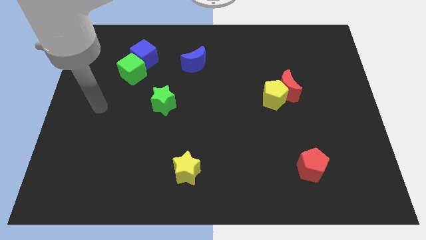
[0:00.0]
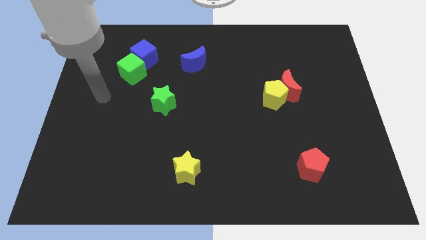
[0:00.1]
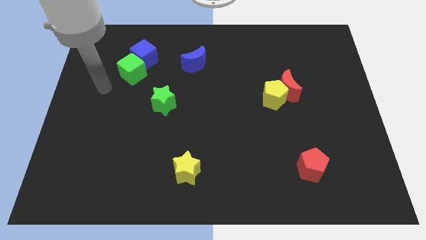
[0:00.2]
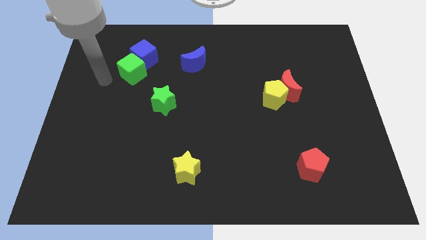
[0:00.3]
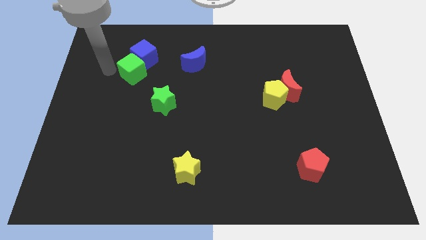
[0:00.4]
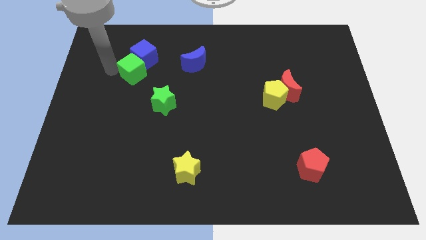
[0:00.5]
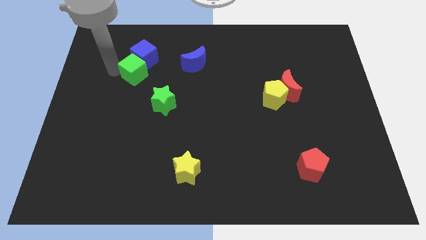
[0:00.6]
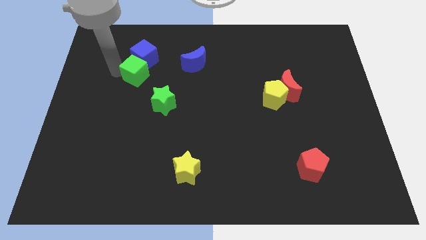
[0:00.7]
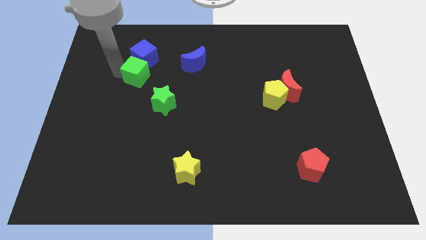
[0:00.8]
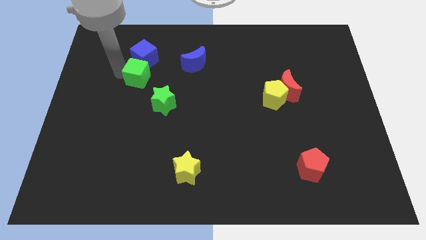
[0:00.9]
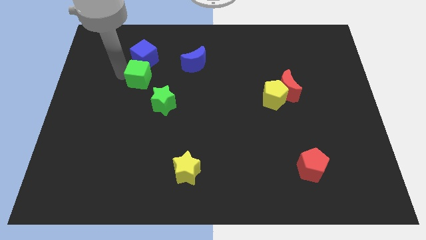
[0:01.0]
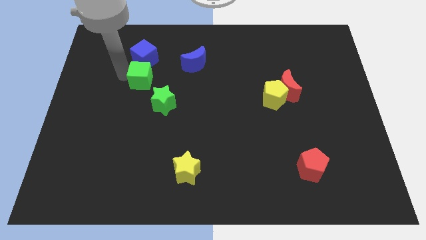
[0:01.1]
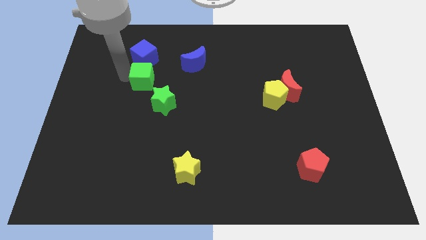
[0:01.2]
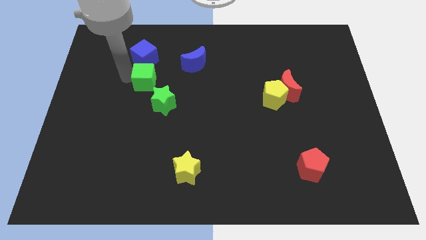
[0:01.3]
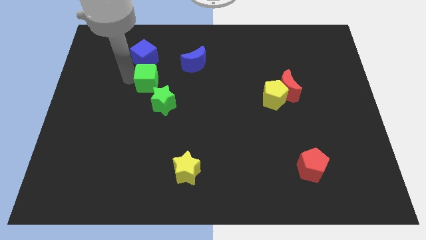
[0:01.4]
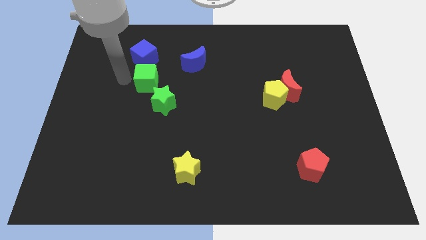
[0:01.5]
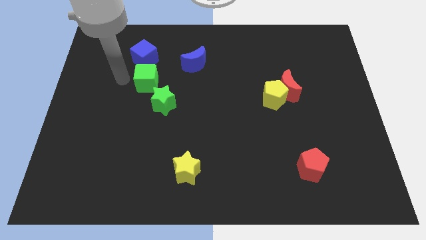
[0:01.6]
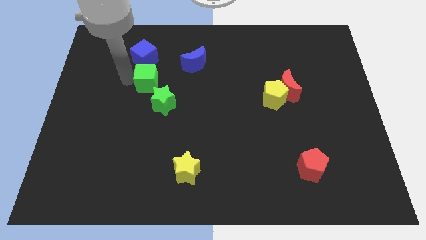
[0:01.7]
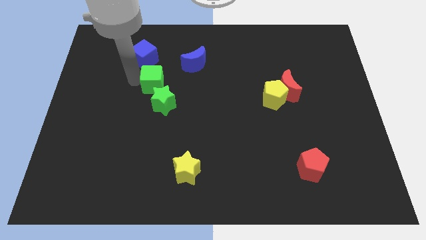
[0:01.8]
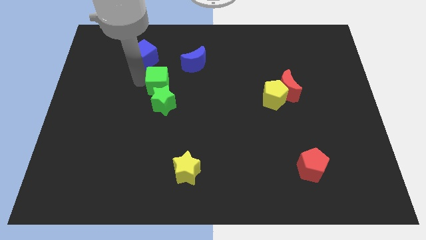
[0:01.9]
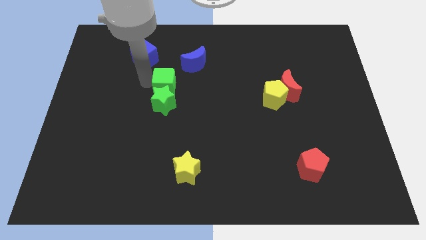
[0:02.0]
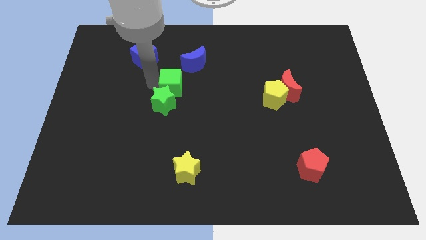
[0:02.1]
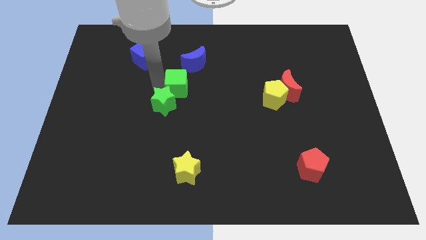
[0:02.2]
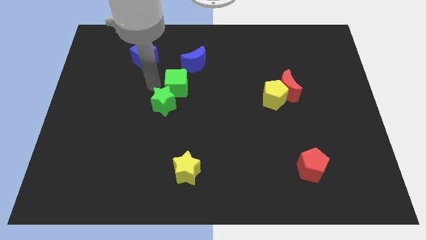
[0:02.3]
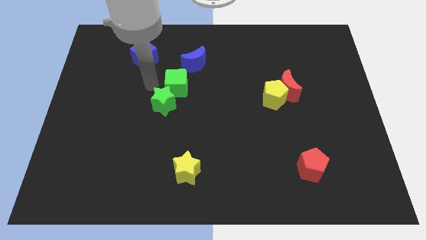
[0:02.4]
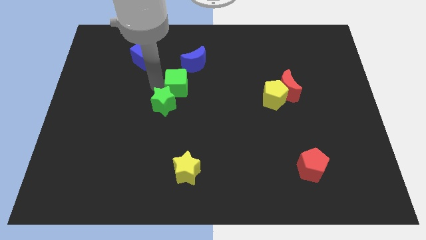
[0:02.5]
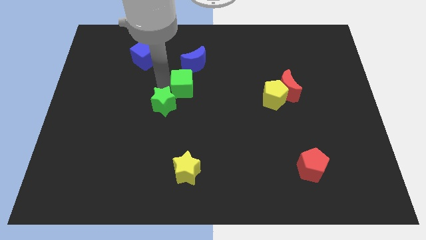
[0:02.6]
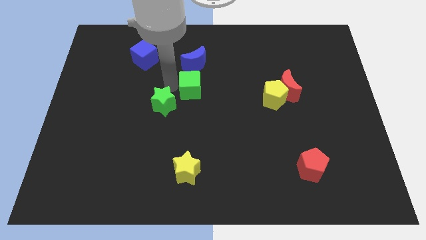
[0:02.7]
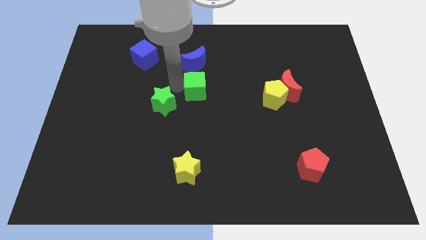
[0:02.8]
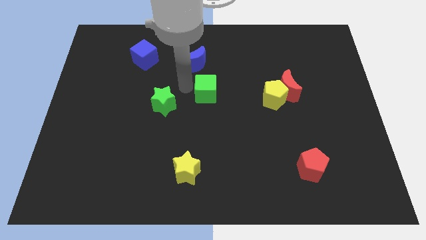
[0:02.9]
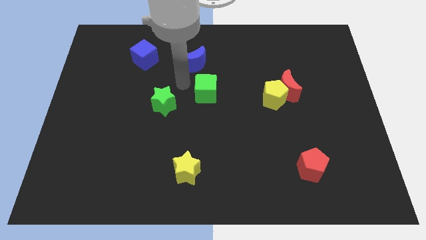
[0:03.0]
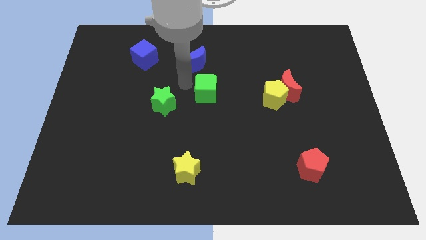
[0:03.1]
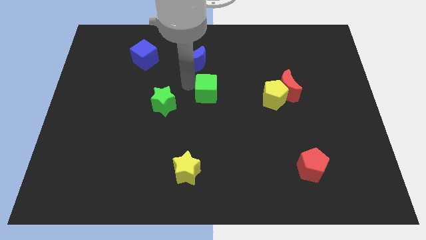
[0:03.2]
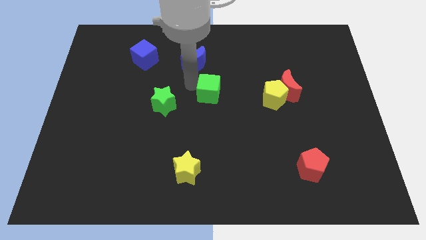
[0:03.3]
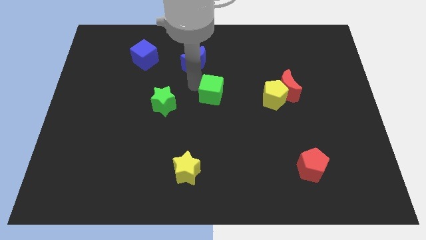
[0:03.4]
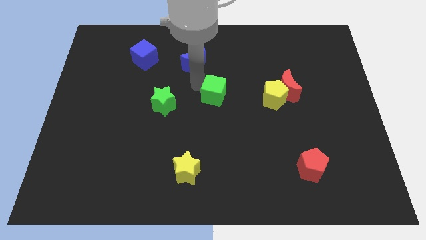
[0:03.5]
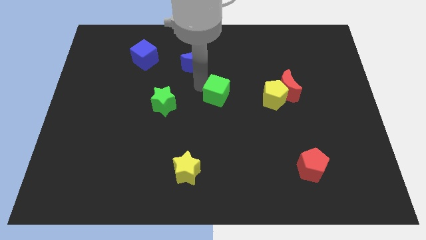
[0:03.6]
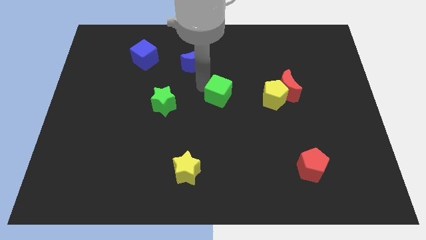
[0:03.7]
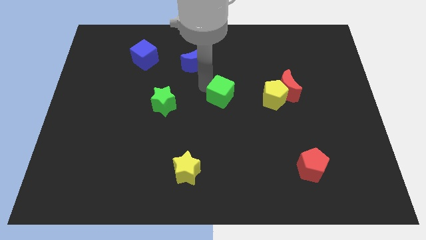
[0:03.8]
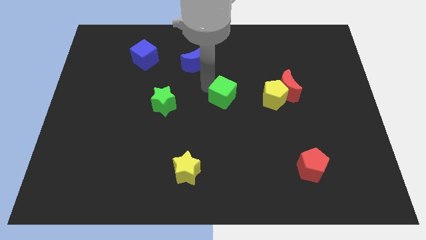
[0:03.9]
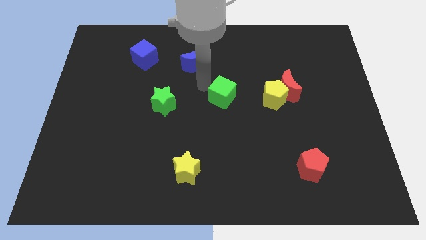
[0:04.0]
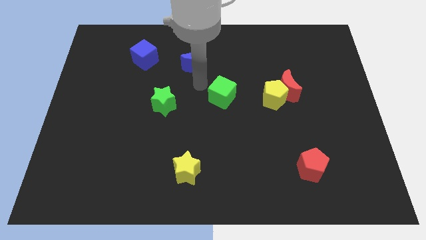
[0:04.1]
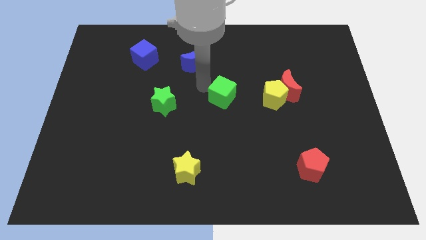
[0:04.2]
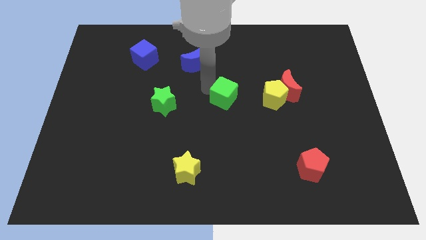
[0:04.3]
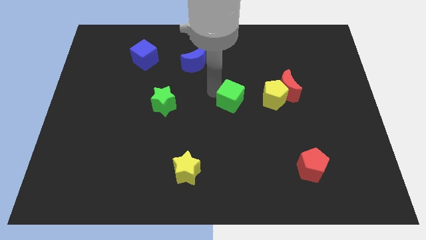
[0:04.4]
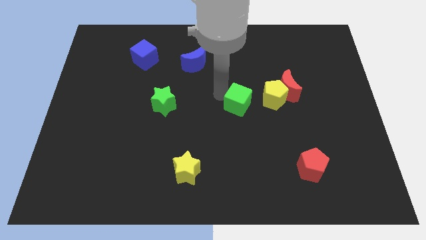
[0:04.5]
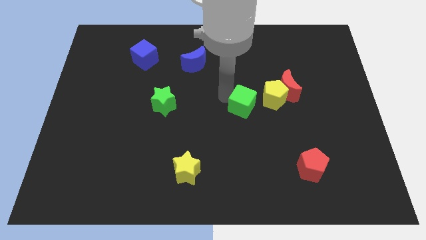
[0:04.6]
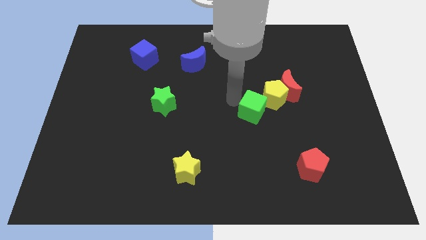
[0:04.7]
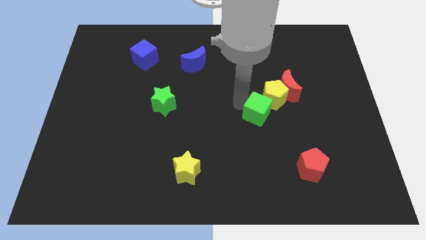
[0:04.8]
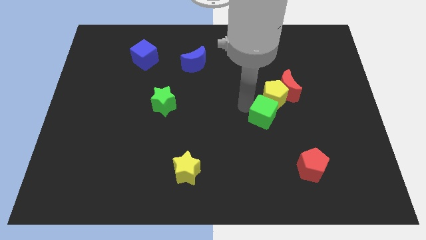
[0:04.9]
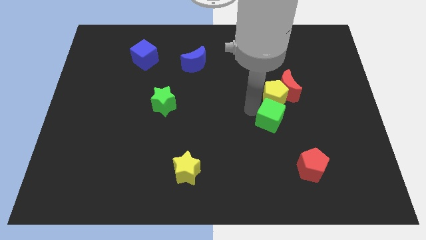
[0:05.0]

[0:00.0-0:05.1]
put the green cube to the bottom of the red moon

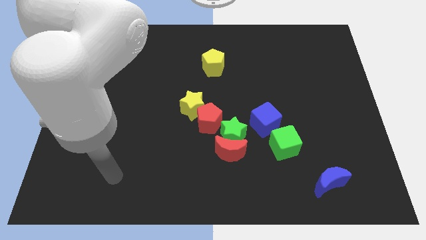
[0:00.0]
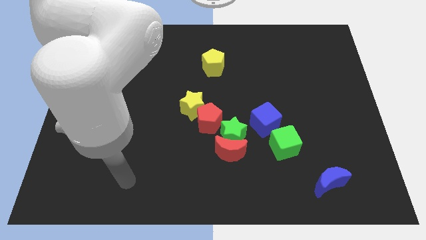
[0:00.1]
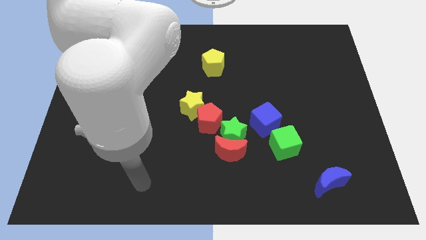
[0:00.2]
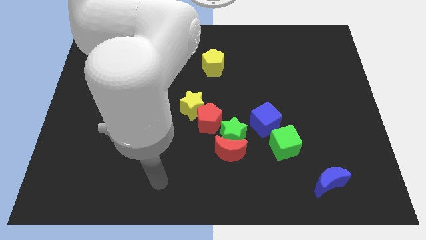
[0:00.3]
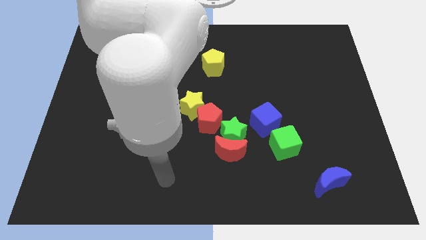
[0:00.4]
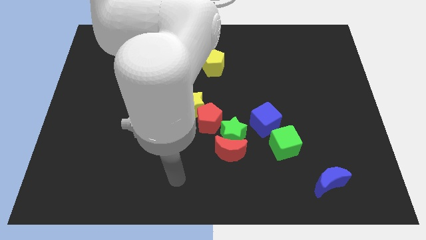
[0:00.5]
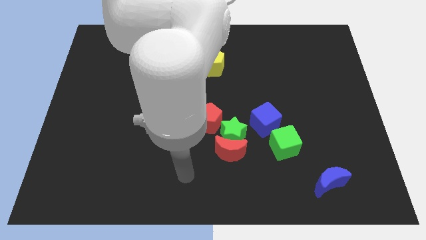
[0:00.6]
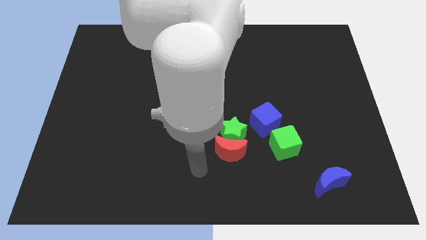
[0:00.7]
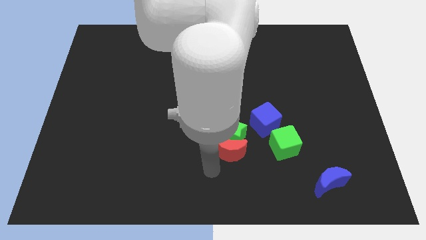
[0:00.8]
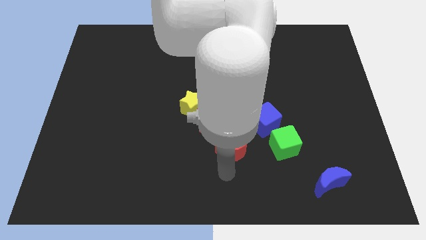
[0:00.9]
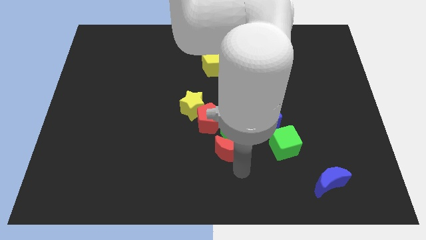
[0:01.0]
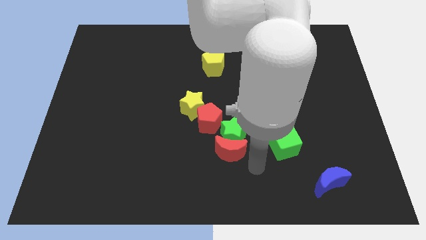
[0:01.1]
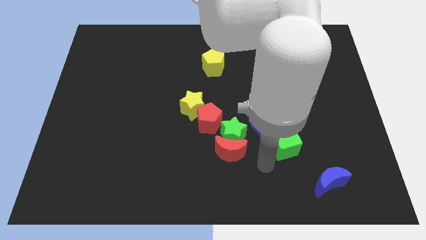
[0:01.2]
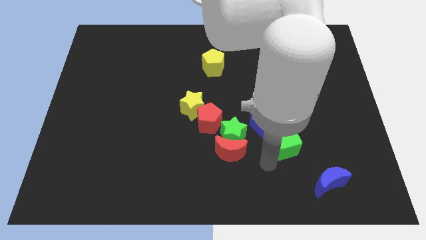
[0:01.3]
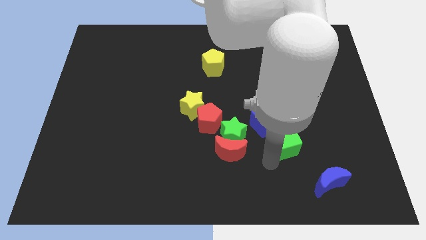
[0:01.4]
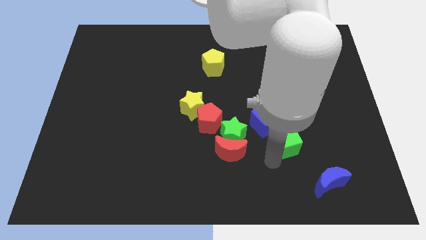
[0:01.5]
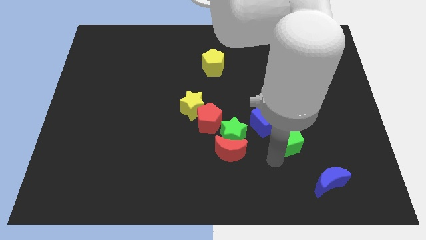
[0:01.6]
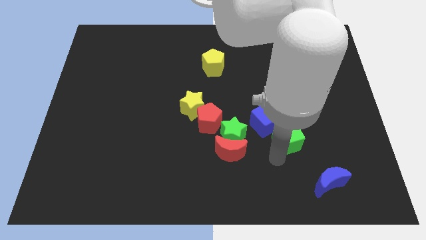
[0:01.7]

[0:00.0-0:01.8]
move the green cube right of the blue cube

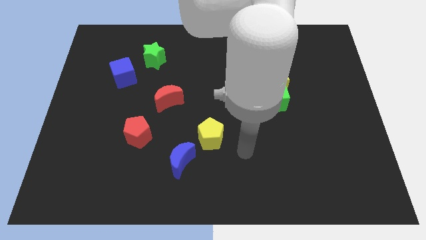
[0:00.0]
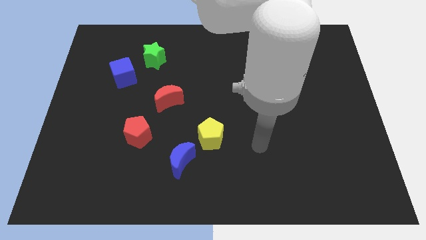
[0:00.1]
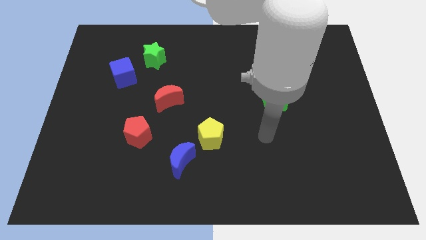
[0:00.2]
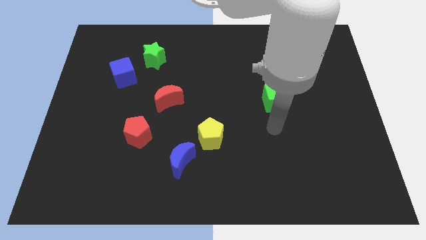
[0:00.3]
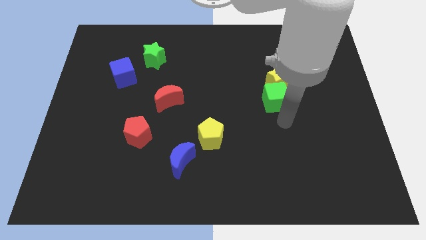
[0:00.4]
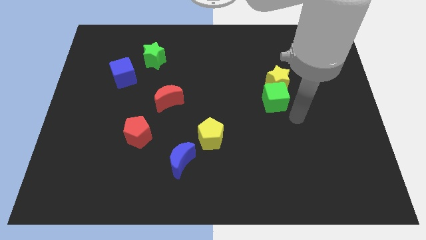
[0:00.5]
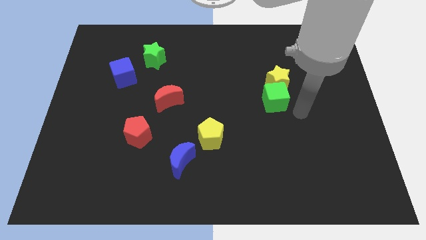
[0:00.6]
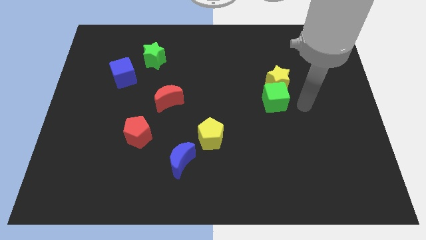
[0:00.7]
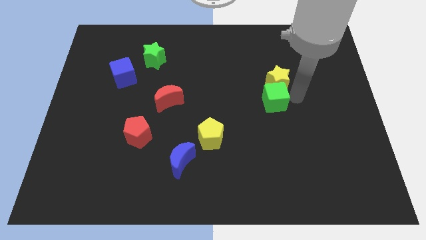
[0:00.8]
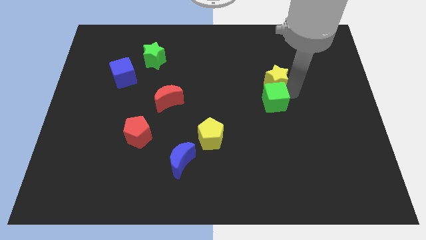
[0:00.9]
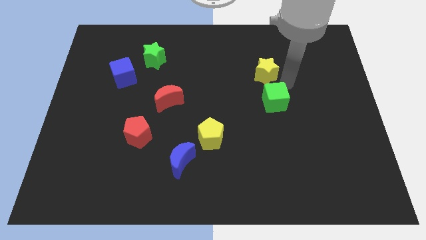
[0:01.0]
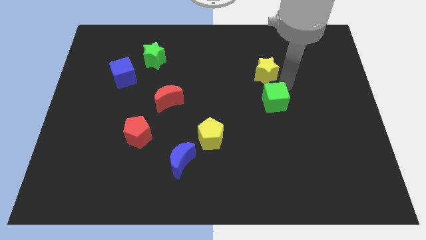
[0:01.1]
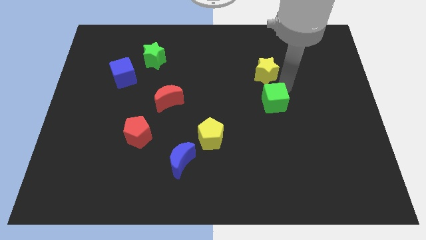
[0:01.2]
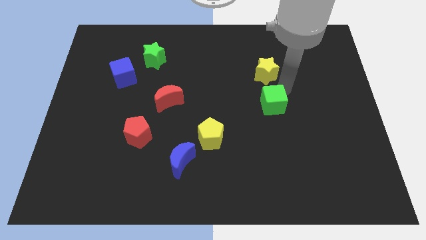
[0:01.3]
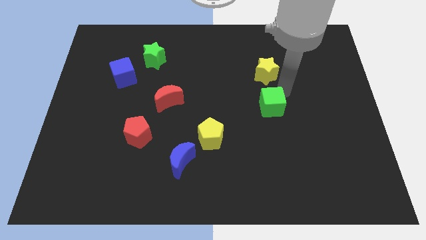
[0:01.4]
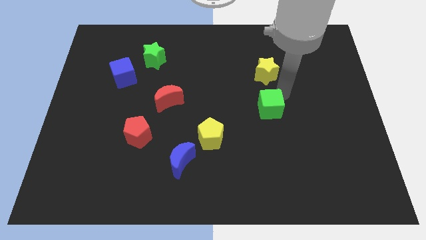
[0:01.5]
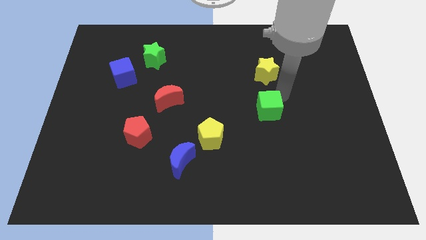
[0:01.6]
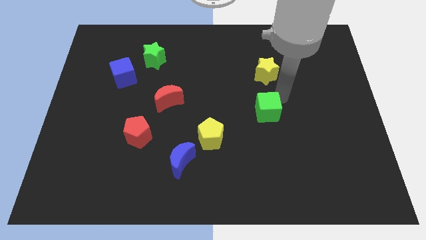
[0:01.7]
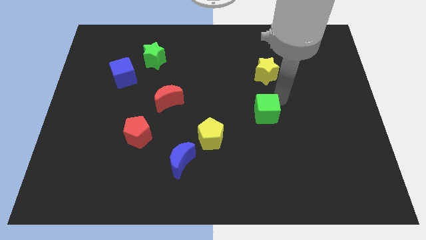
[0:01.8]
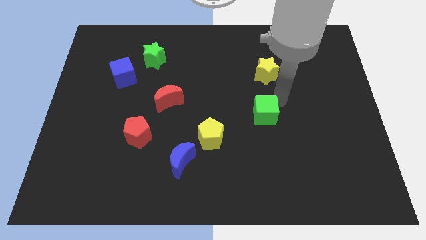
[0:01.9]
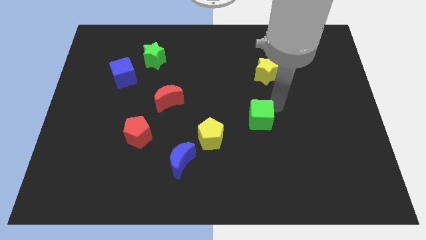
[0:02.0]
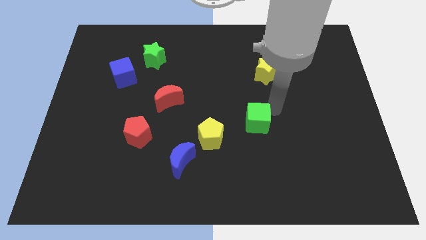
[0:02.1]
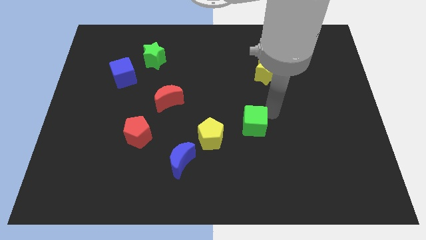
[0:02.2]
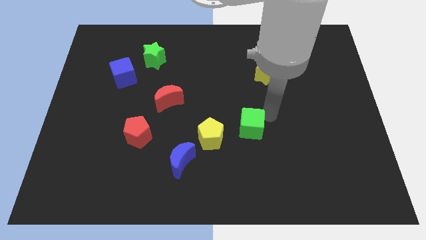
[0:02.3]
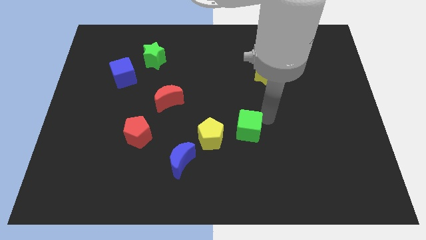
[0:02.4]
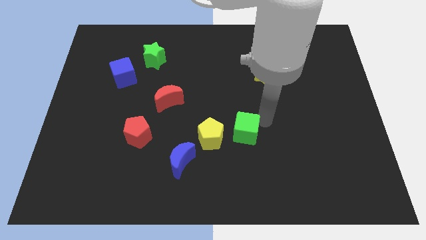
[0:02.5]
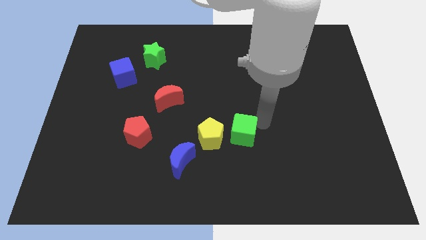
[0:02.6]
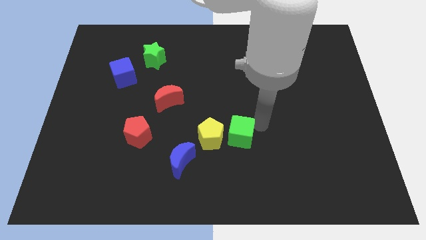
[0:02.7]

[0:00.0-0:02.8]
push the green cube to the bottom right of the yellow pentagon
